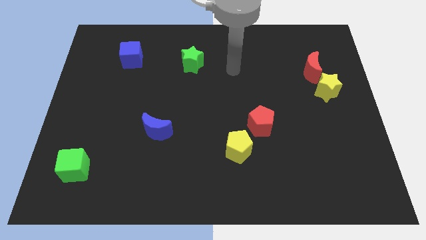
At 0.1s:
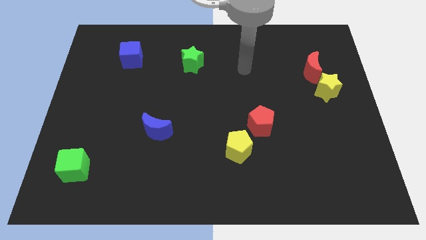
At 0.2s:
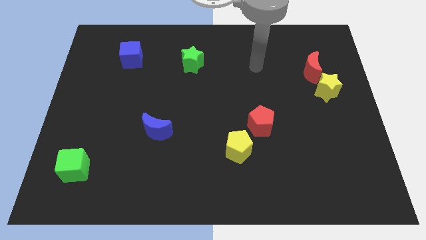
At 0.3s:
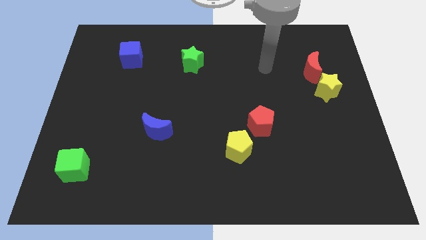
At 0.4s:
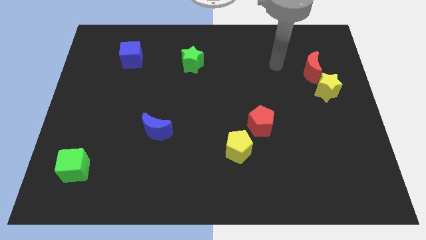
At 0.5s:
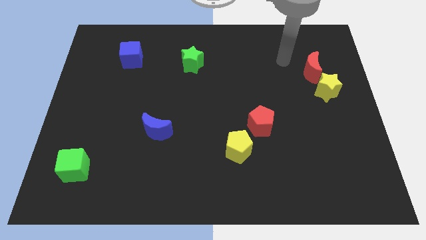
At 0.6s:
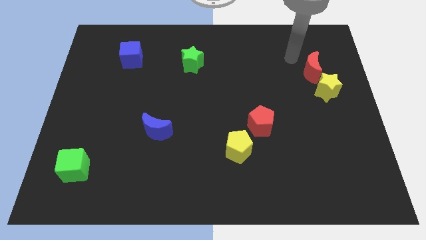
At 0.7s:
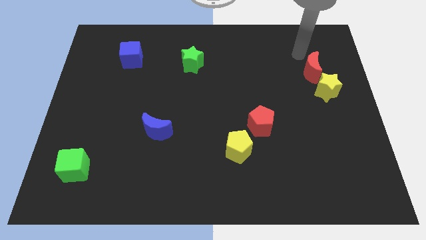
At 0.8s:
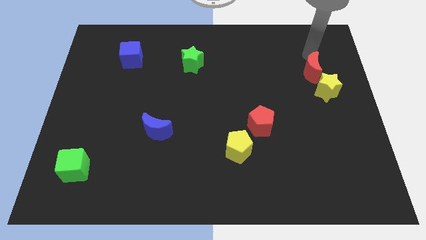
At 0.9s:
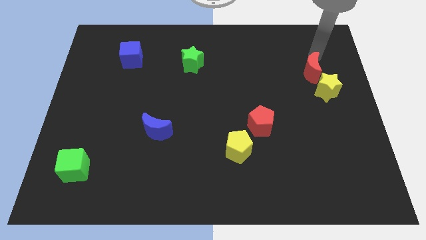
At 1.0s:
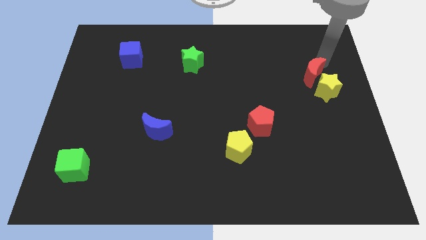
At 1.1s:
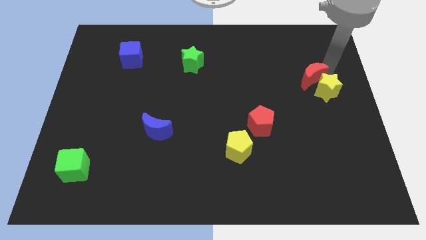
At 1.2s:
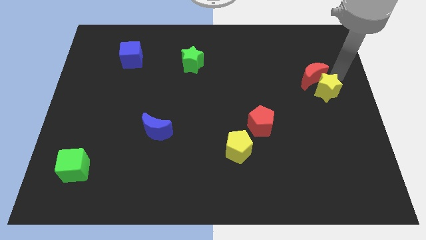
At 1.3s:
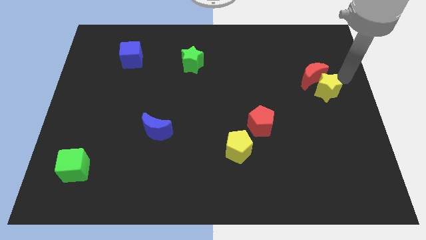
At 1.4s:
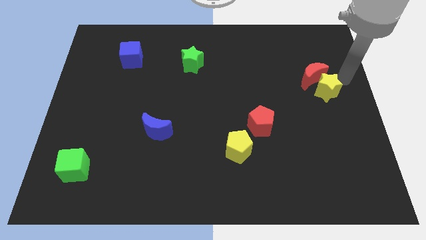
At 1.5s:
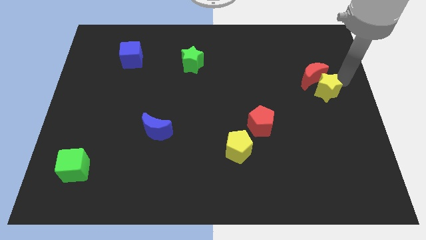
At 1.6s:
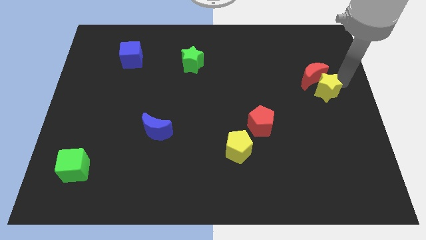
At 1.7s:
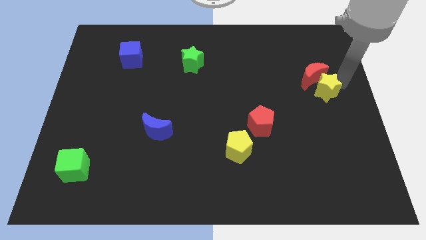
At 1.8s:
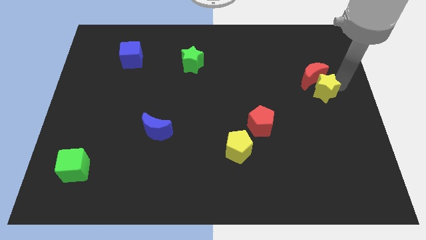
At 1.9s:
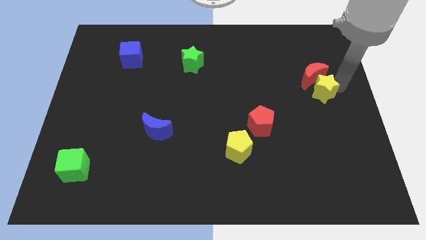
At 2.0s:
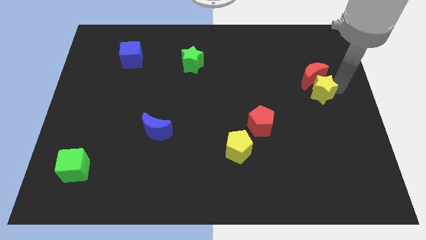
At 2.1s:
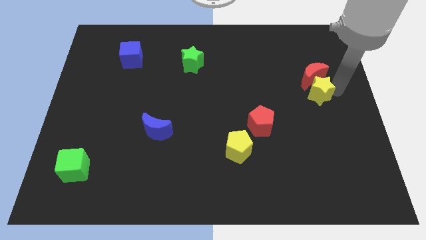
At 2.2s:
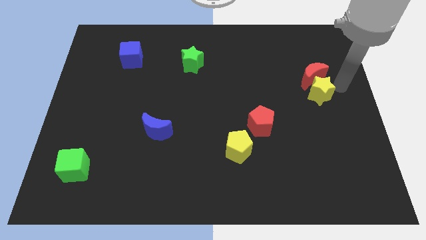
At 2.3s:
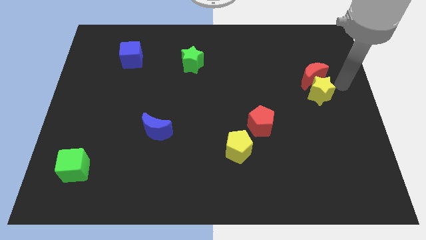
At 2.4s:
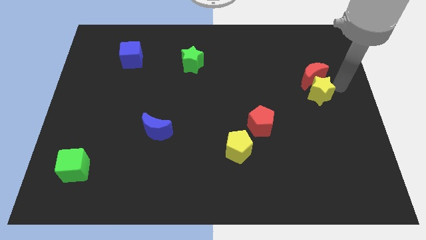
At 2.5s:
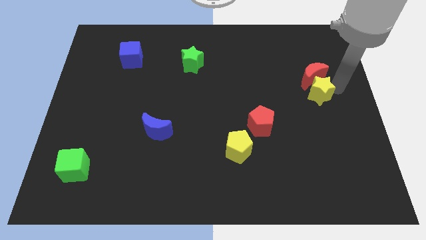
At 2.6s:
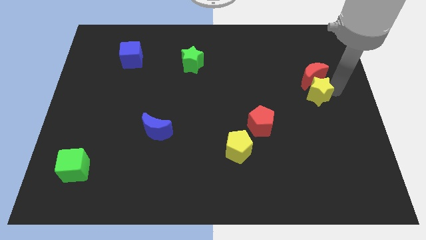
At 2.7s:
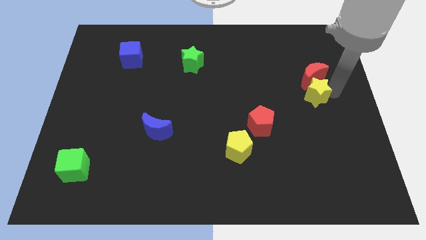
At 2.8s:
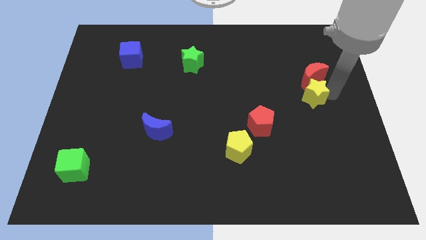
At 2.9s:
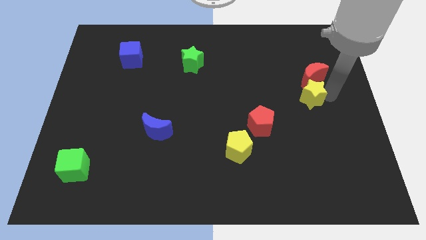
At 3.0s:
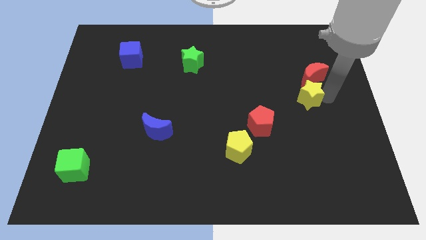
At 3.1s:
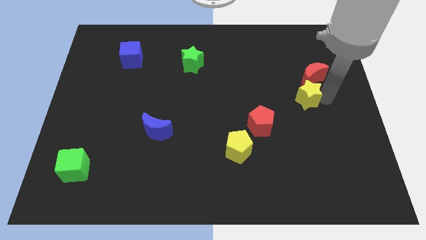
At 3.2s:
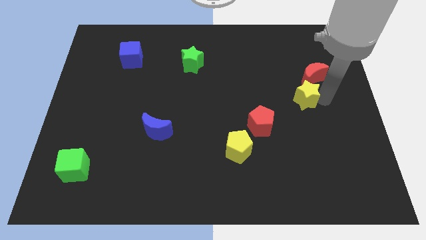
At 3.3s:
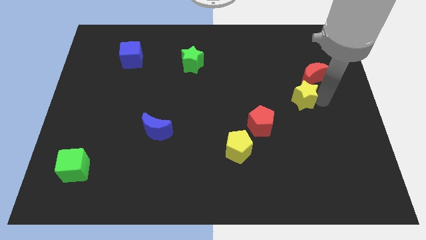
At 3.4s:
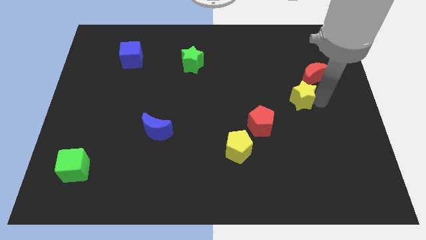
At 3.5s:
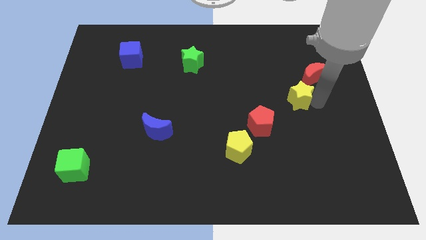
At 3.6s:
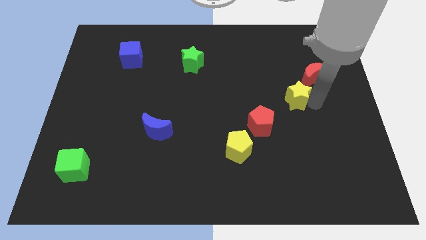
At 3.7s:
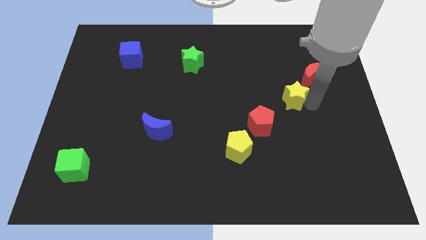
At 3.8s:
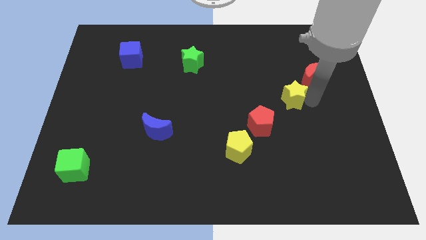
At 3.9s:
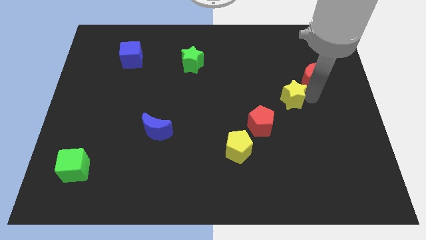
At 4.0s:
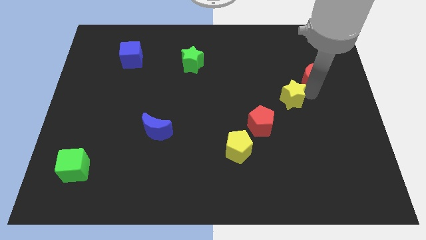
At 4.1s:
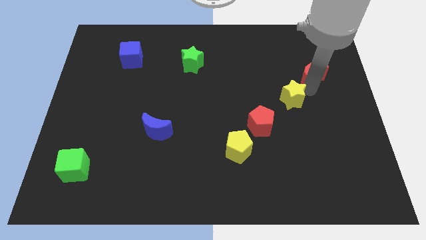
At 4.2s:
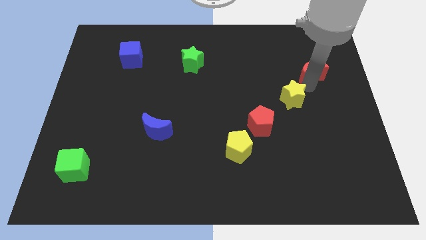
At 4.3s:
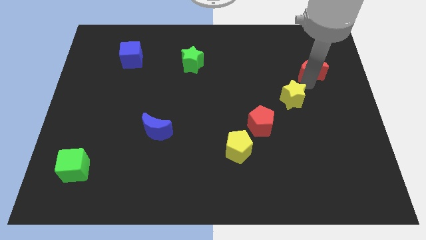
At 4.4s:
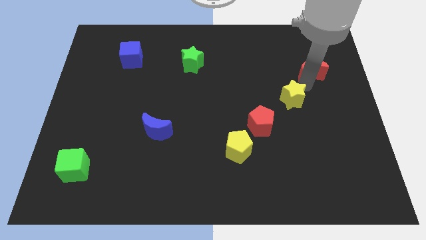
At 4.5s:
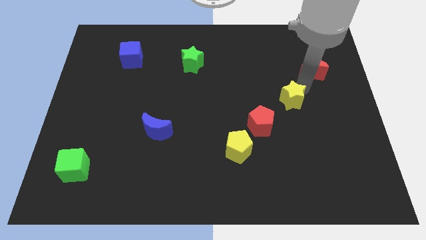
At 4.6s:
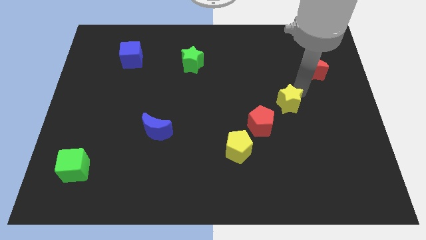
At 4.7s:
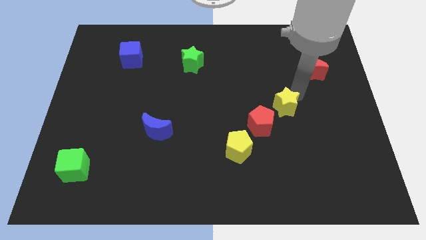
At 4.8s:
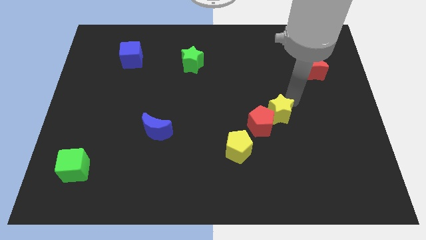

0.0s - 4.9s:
push the yellow star next to the red pentagon

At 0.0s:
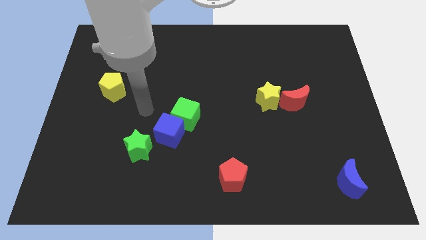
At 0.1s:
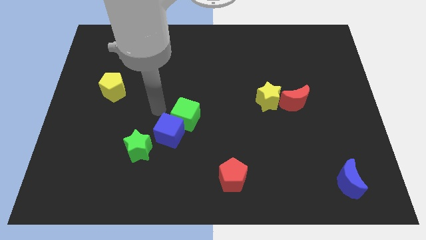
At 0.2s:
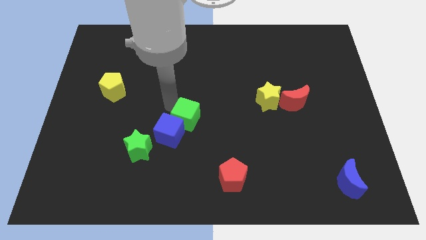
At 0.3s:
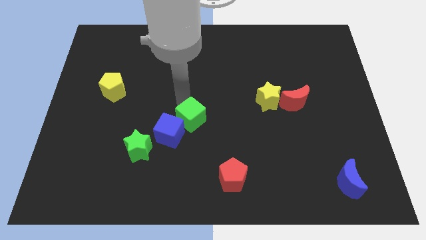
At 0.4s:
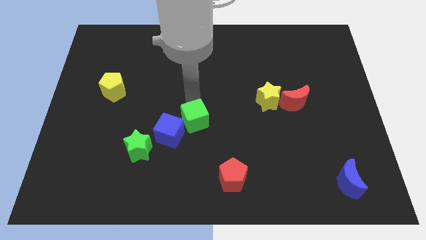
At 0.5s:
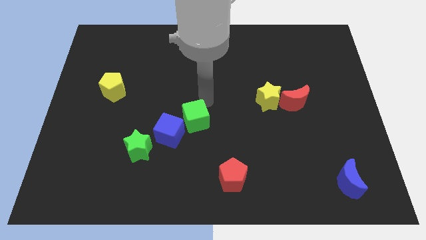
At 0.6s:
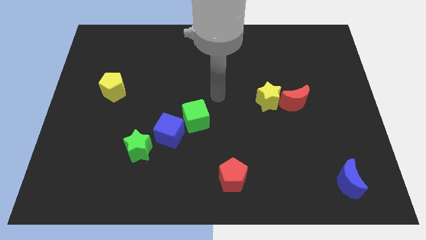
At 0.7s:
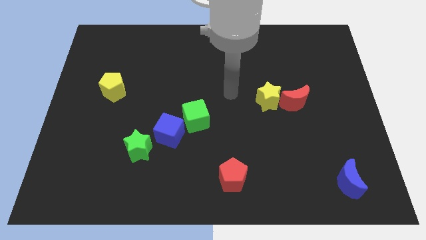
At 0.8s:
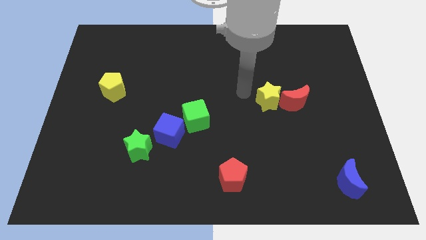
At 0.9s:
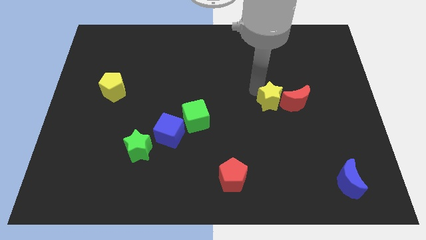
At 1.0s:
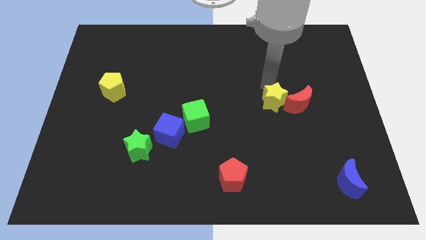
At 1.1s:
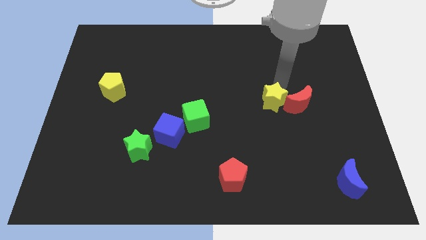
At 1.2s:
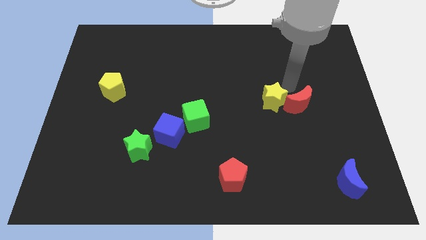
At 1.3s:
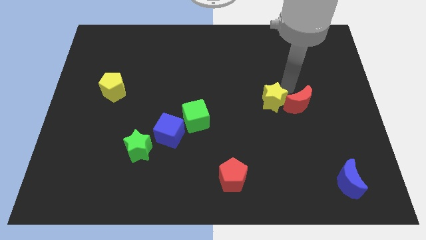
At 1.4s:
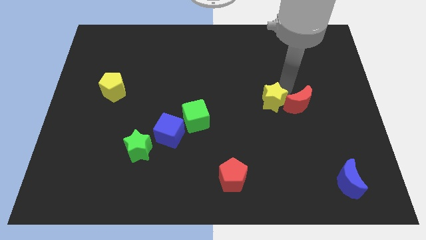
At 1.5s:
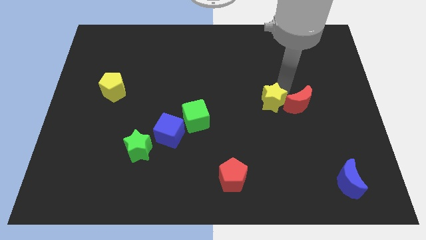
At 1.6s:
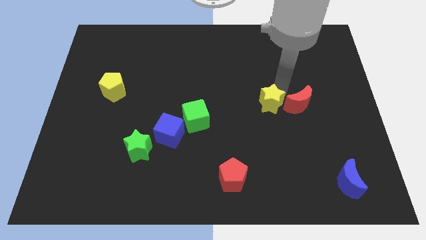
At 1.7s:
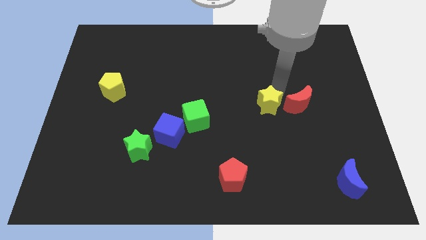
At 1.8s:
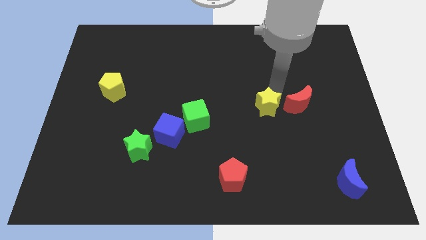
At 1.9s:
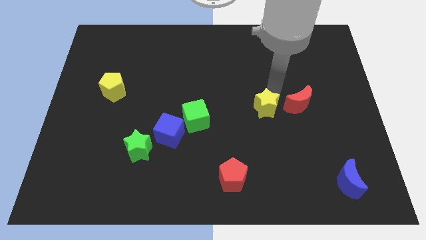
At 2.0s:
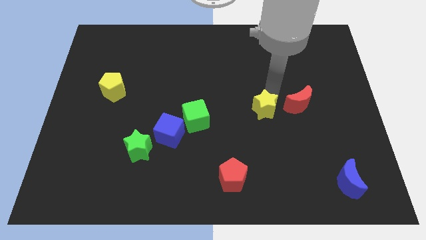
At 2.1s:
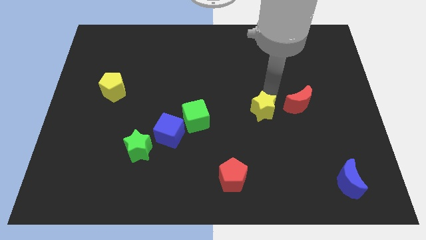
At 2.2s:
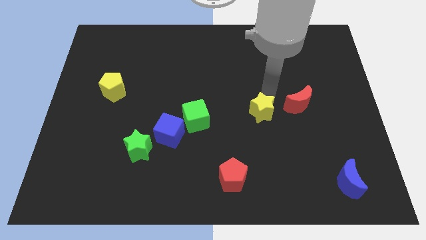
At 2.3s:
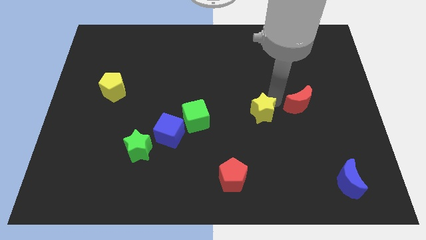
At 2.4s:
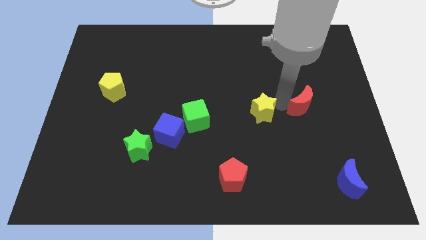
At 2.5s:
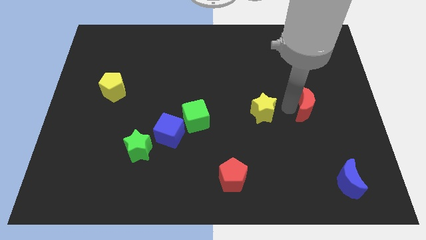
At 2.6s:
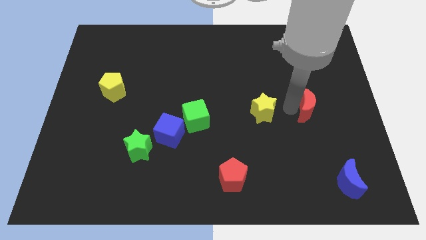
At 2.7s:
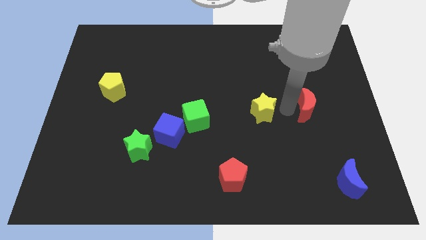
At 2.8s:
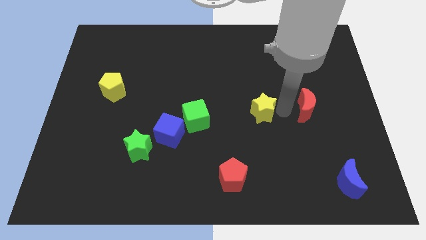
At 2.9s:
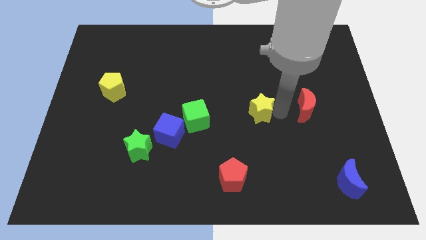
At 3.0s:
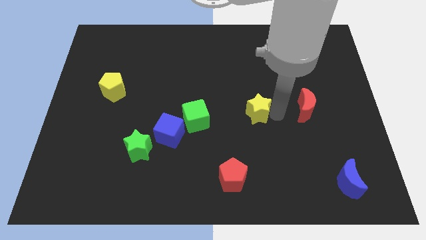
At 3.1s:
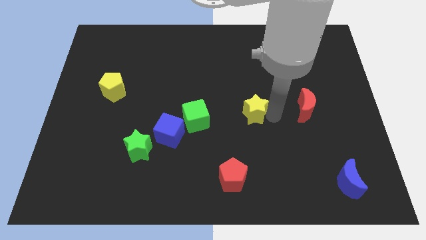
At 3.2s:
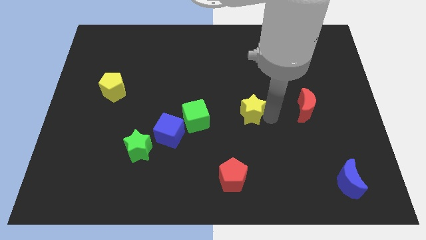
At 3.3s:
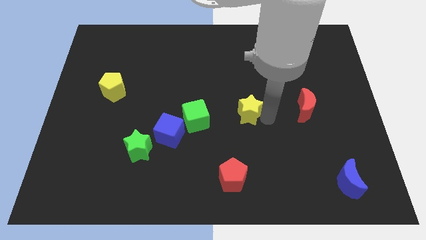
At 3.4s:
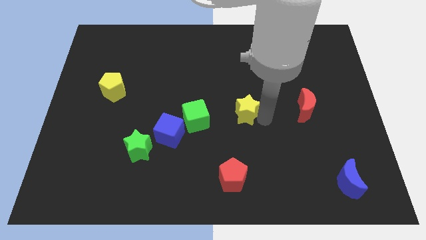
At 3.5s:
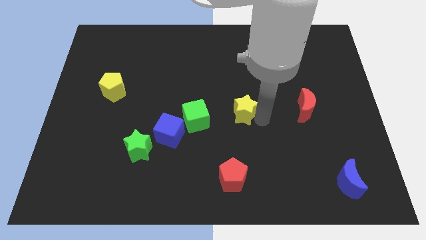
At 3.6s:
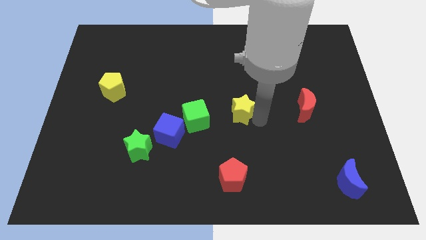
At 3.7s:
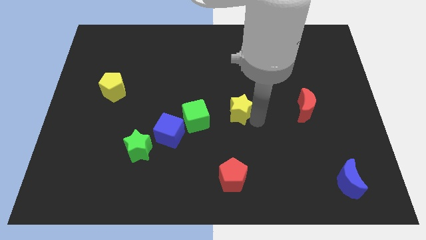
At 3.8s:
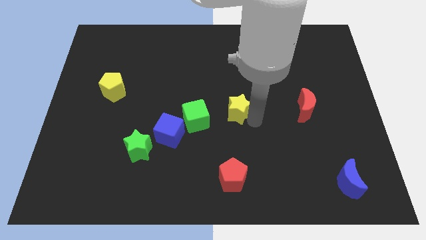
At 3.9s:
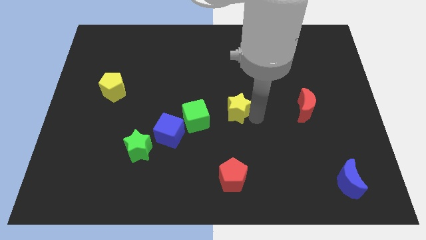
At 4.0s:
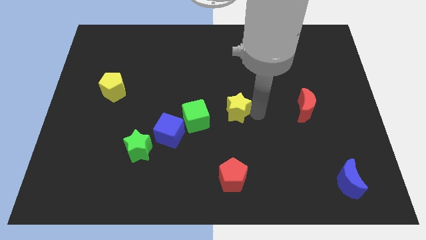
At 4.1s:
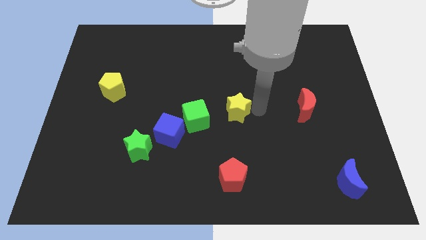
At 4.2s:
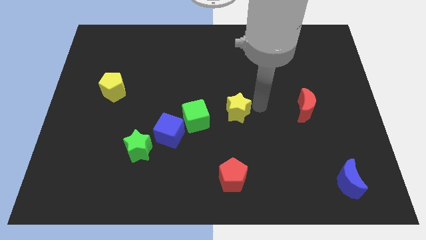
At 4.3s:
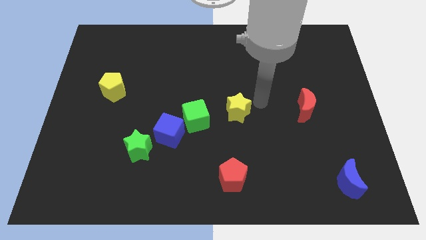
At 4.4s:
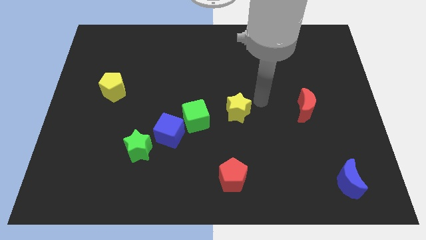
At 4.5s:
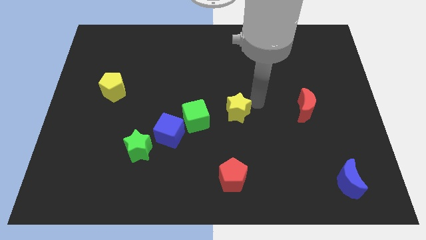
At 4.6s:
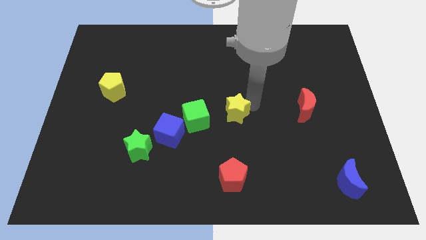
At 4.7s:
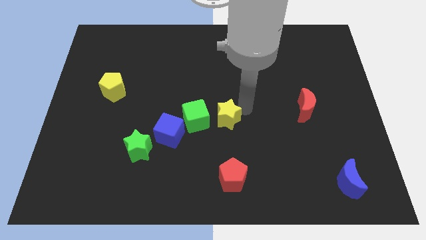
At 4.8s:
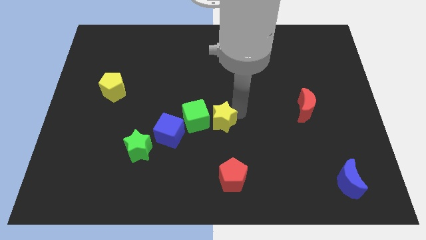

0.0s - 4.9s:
move the yellow star towards the green cube
